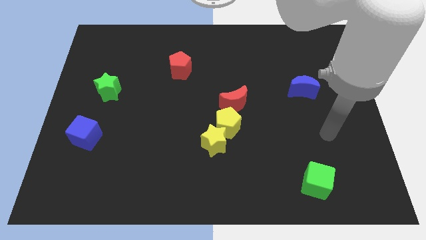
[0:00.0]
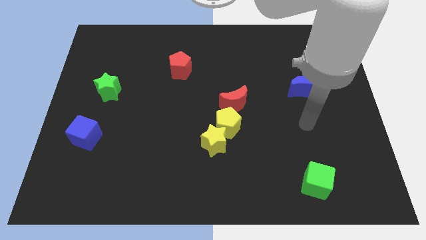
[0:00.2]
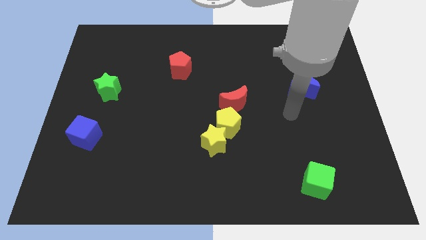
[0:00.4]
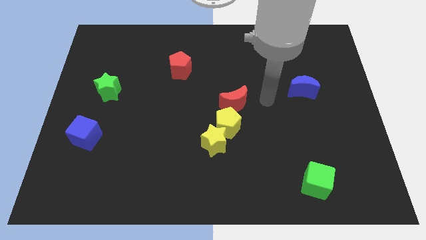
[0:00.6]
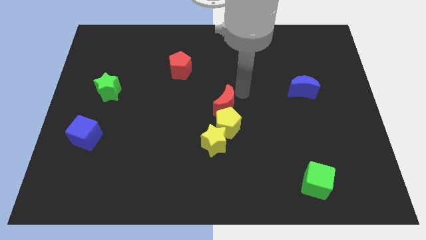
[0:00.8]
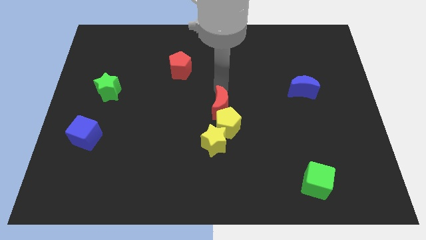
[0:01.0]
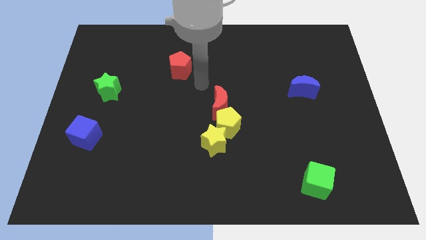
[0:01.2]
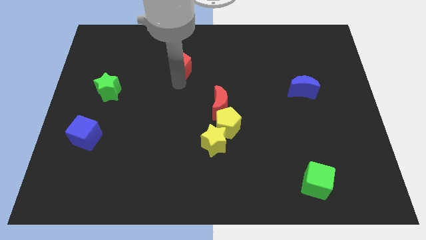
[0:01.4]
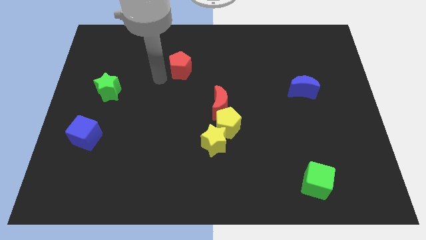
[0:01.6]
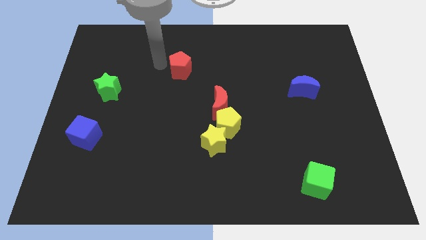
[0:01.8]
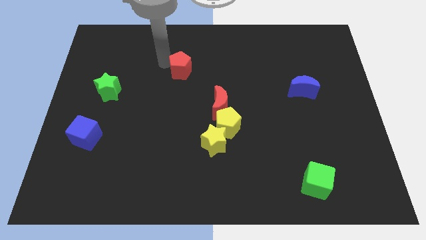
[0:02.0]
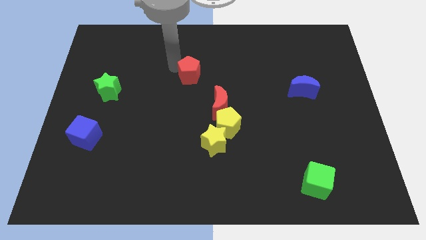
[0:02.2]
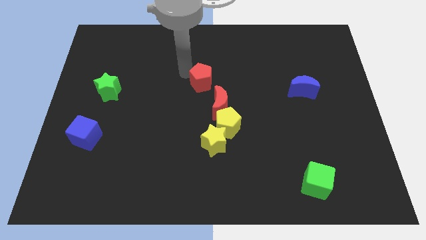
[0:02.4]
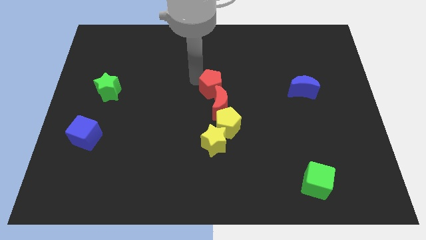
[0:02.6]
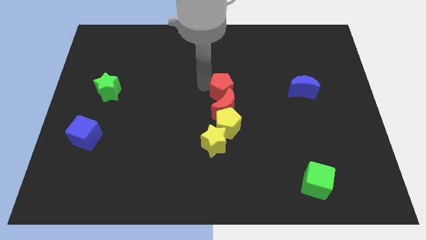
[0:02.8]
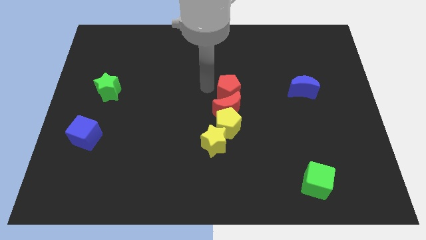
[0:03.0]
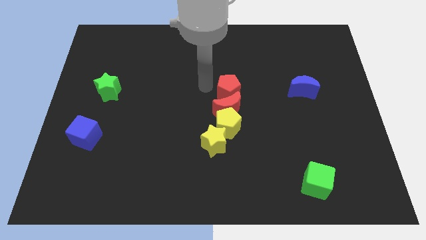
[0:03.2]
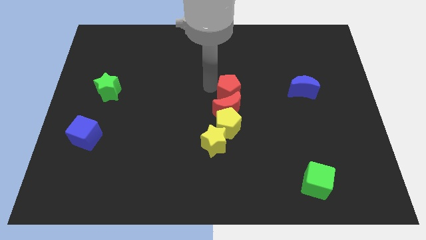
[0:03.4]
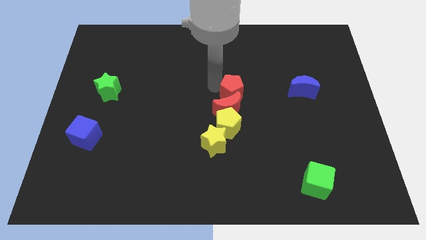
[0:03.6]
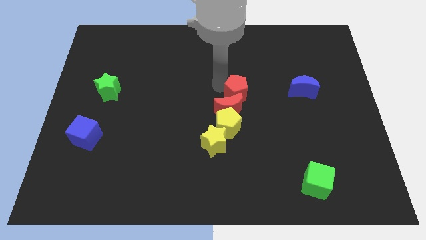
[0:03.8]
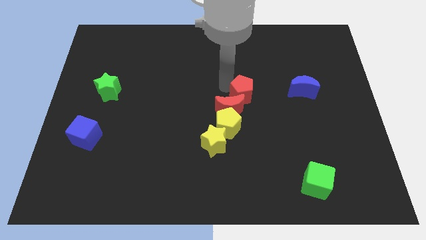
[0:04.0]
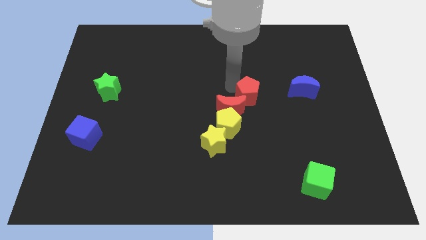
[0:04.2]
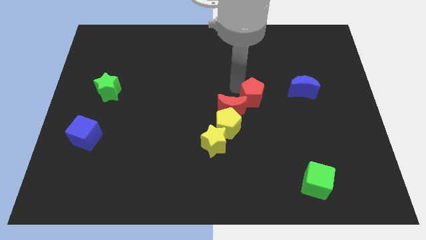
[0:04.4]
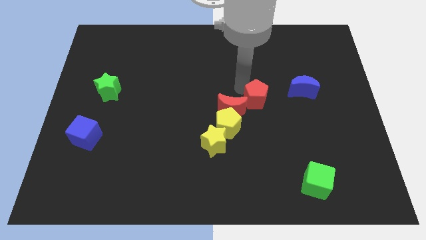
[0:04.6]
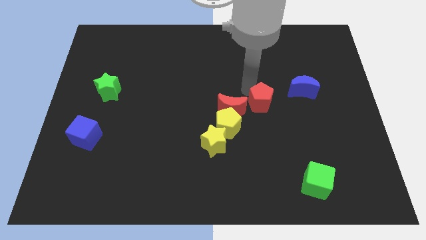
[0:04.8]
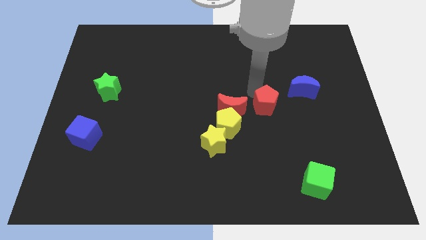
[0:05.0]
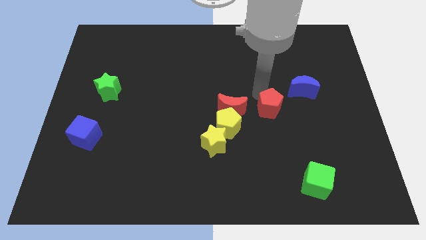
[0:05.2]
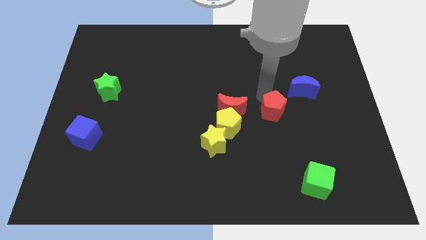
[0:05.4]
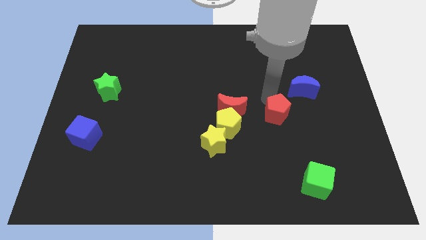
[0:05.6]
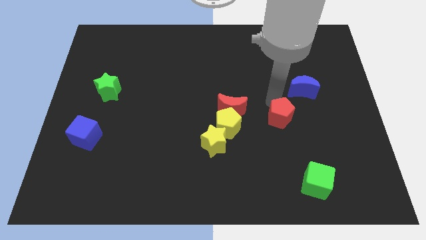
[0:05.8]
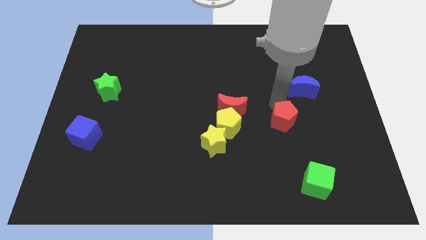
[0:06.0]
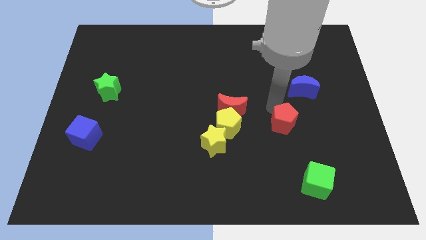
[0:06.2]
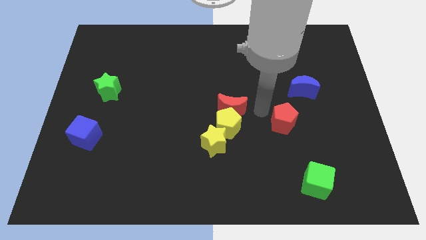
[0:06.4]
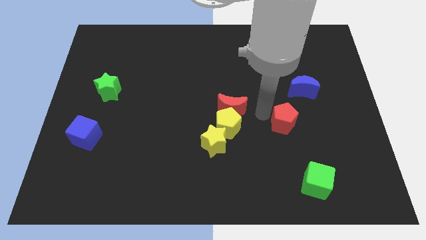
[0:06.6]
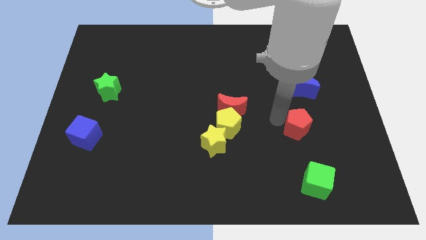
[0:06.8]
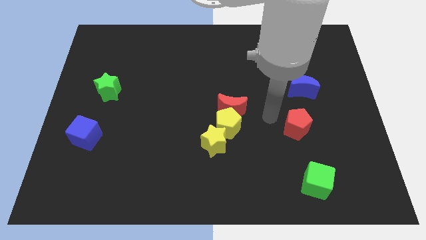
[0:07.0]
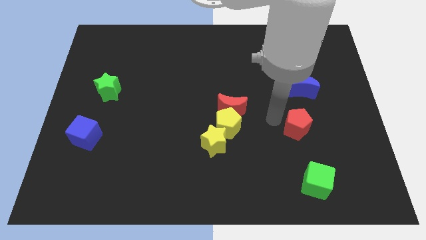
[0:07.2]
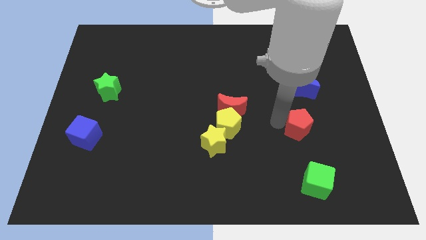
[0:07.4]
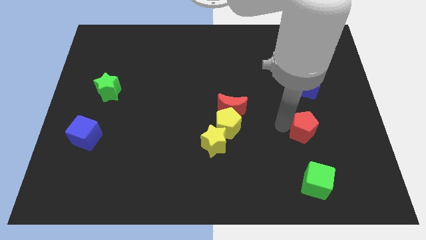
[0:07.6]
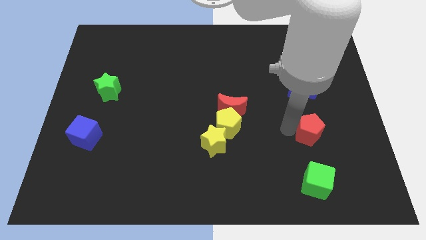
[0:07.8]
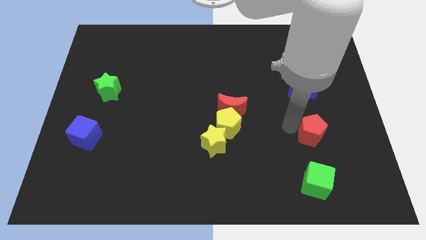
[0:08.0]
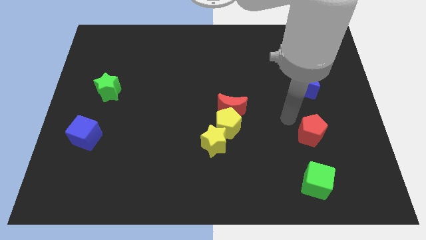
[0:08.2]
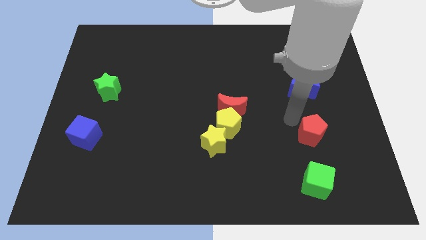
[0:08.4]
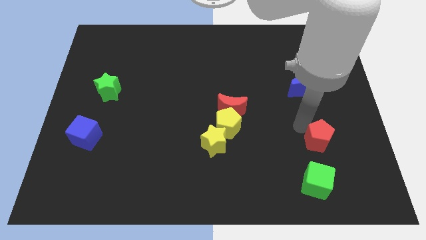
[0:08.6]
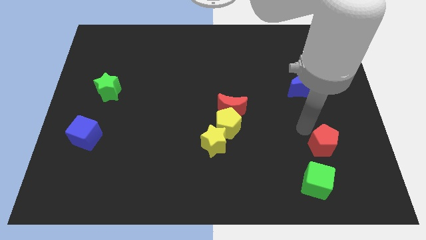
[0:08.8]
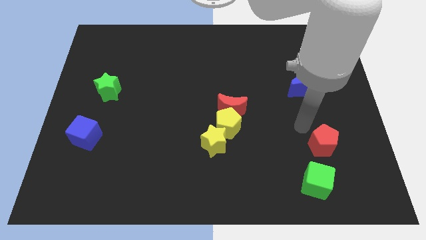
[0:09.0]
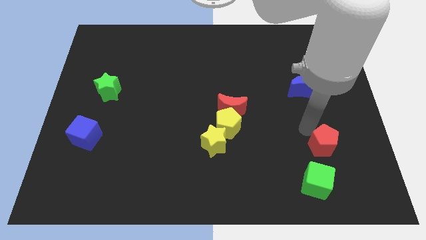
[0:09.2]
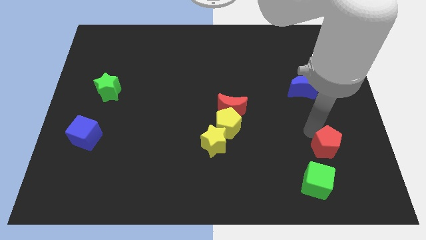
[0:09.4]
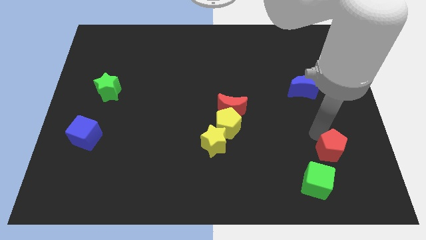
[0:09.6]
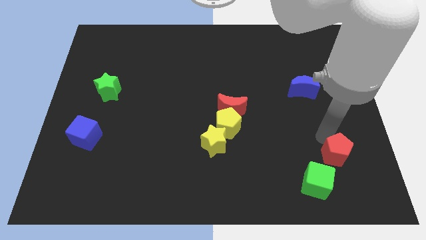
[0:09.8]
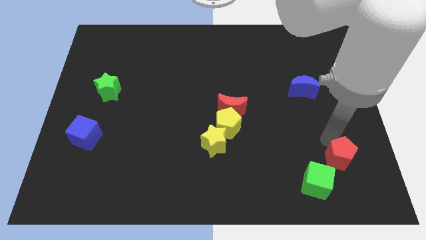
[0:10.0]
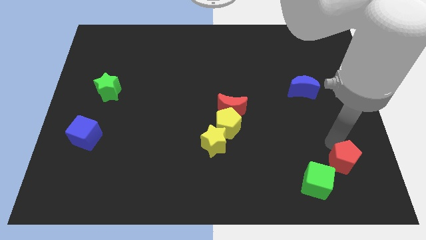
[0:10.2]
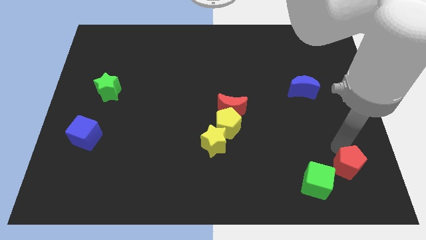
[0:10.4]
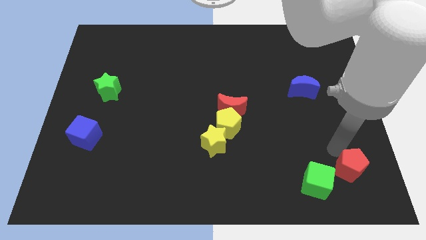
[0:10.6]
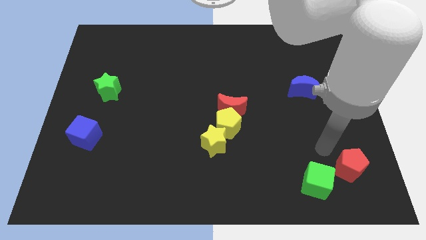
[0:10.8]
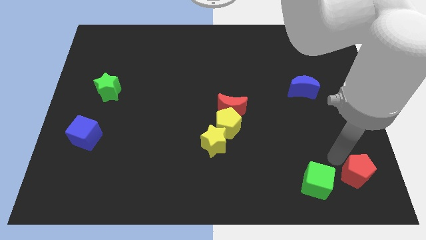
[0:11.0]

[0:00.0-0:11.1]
put the red pentagon to the bottom right corner

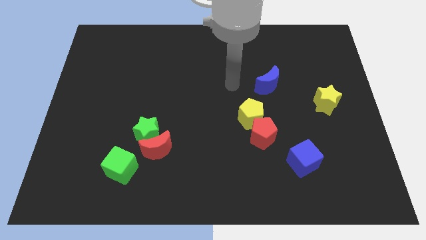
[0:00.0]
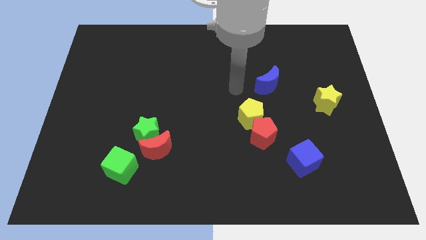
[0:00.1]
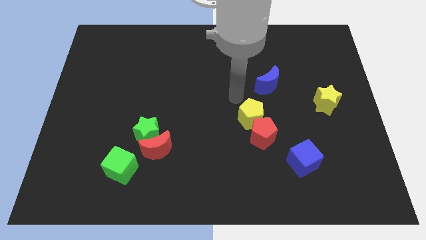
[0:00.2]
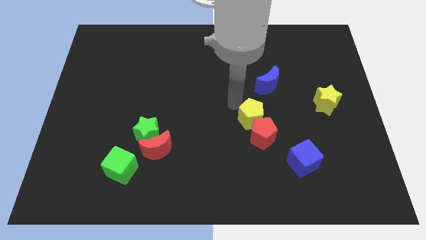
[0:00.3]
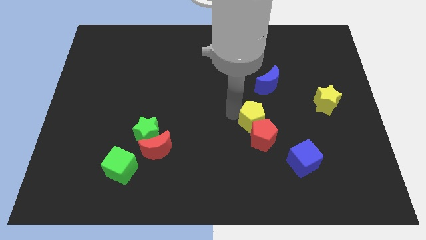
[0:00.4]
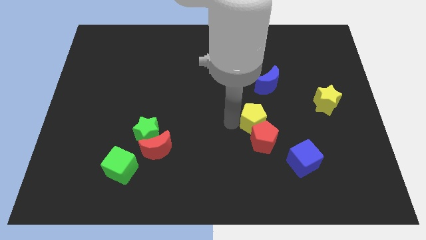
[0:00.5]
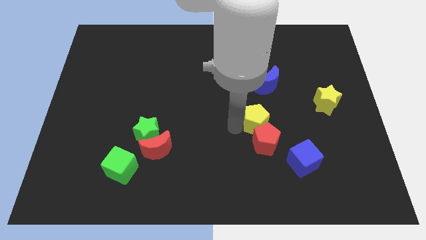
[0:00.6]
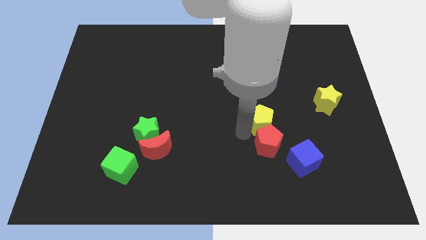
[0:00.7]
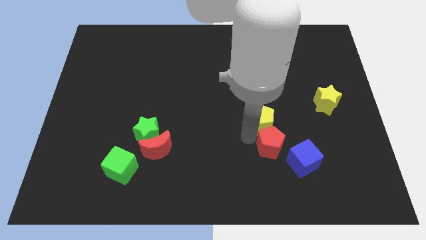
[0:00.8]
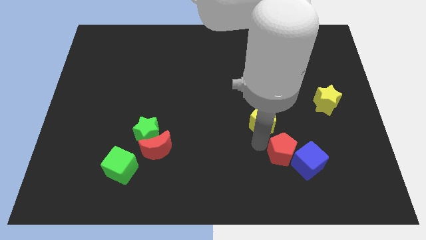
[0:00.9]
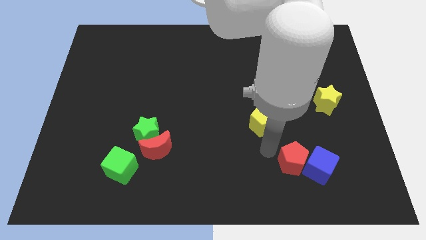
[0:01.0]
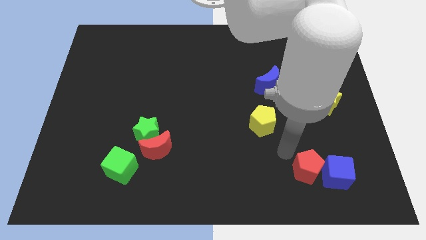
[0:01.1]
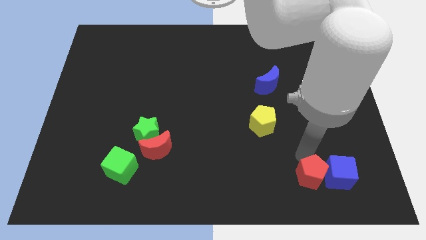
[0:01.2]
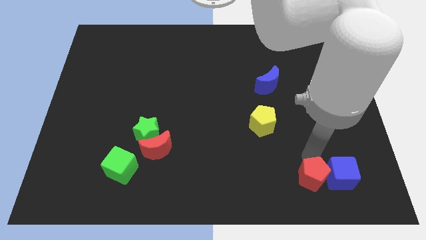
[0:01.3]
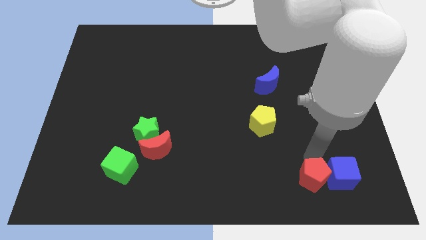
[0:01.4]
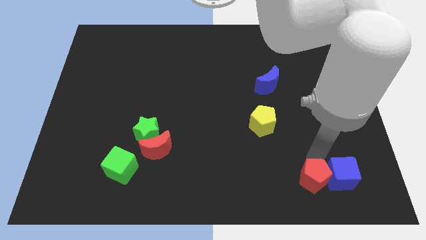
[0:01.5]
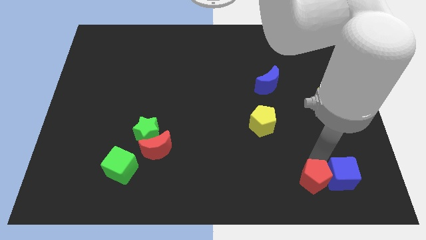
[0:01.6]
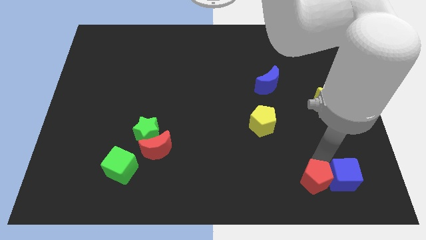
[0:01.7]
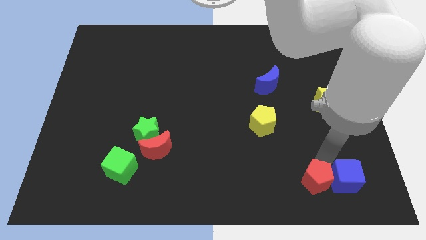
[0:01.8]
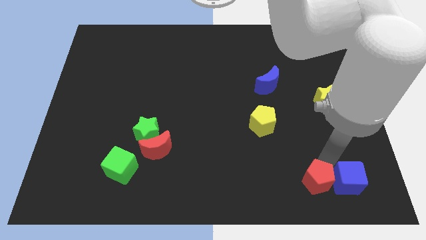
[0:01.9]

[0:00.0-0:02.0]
slide the blue cube to the lower right corner
